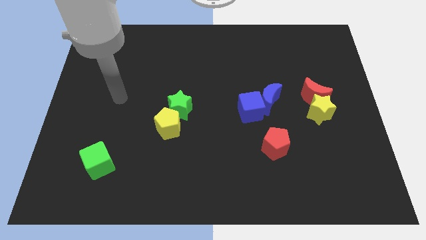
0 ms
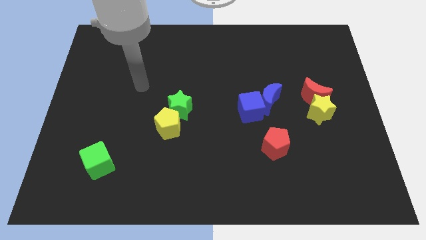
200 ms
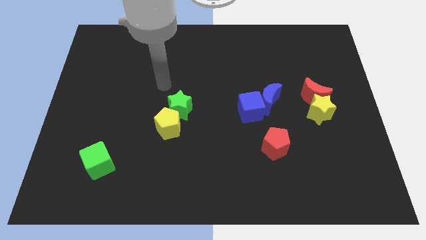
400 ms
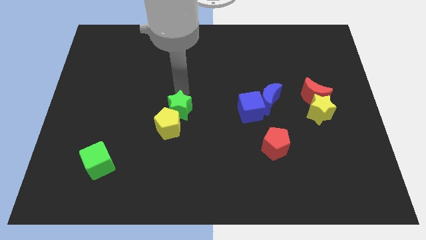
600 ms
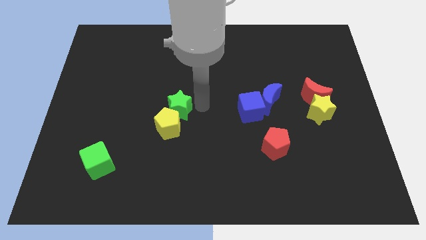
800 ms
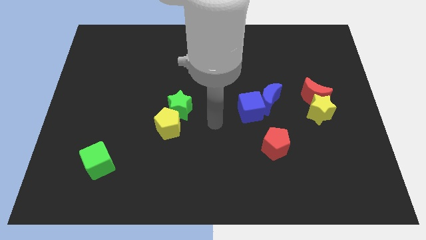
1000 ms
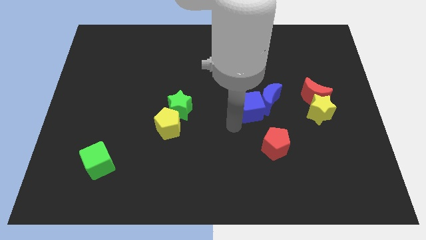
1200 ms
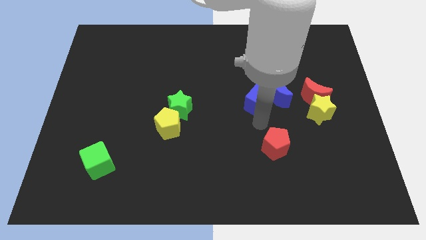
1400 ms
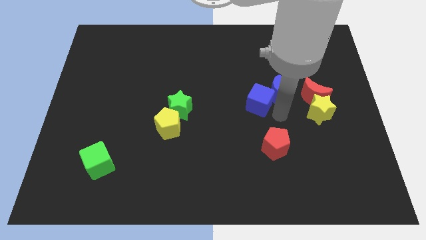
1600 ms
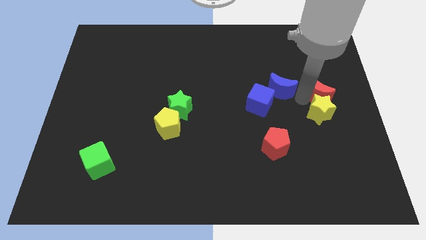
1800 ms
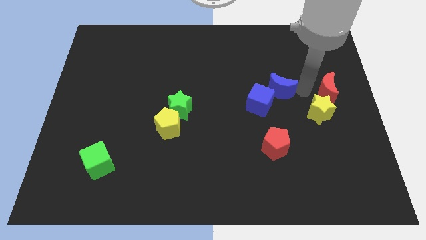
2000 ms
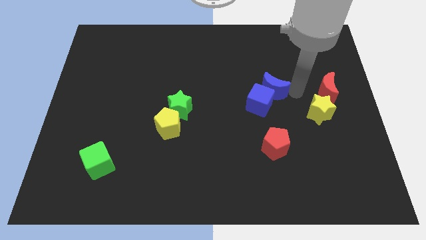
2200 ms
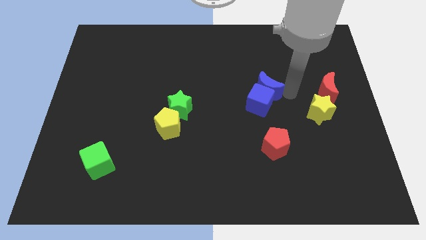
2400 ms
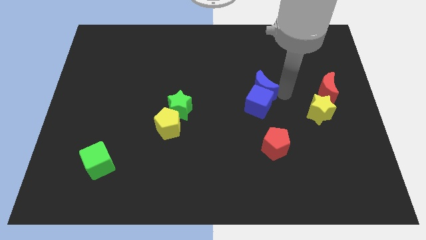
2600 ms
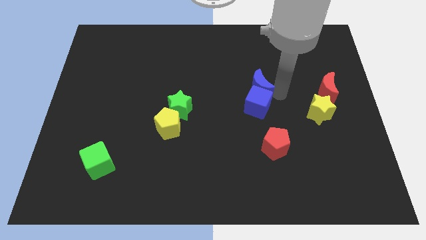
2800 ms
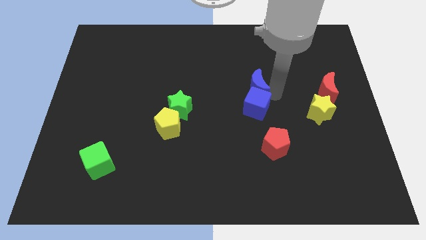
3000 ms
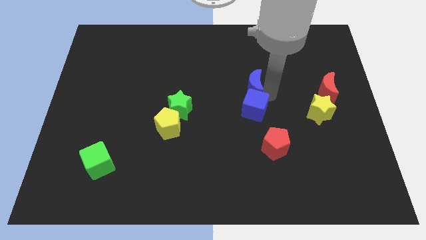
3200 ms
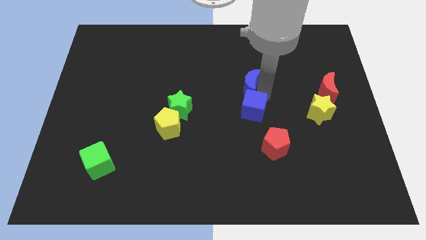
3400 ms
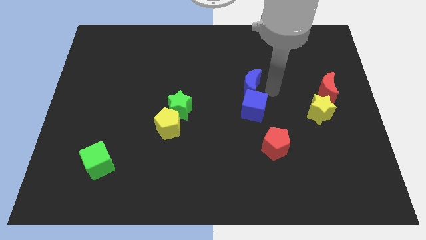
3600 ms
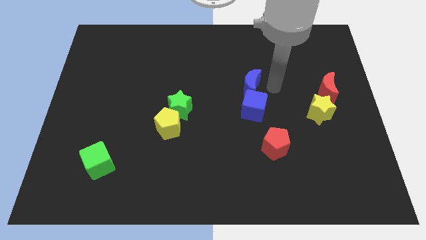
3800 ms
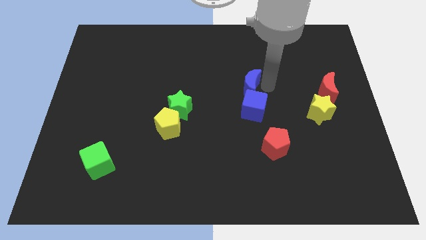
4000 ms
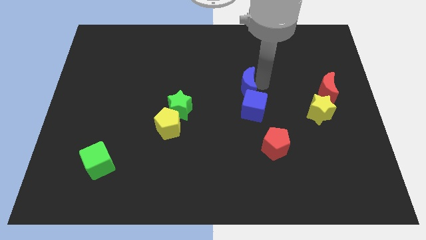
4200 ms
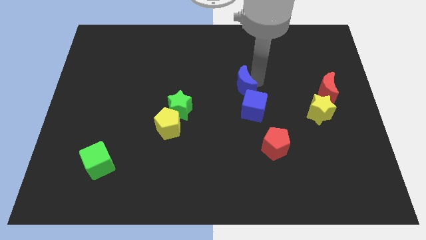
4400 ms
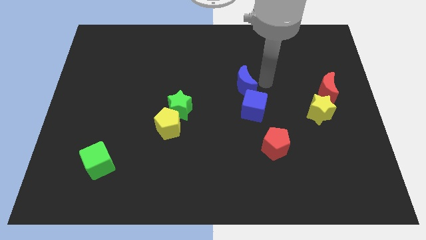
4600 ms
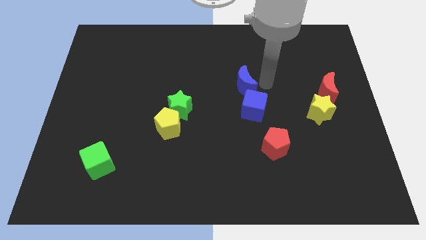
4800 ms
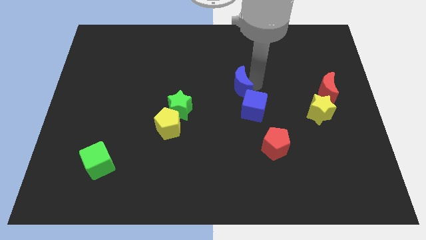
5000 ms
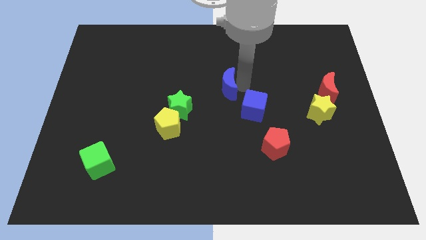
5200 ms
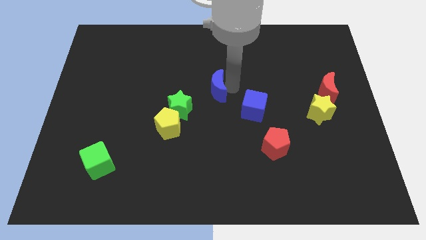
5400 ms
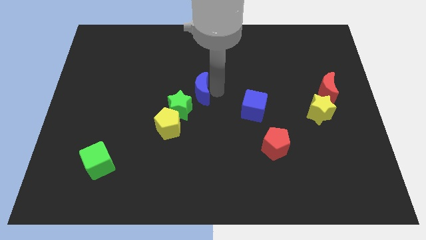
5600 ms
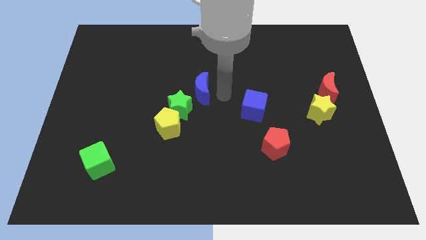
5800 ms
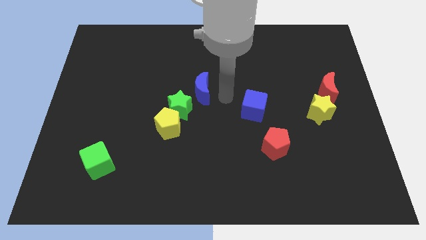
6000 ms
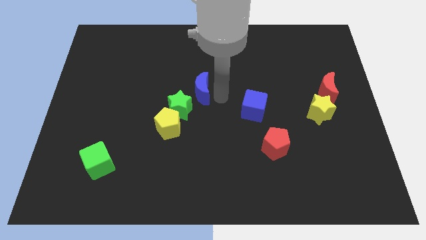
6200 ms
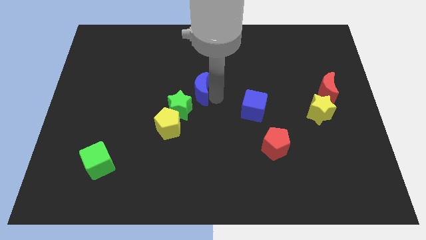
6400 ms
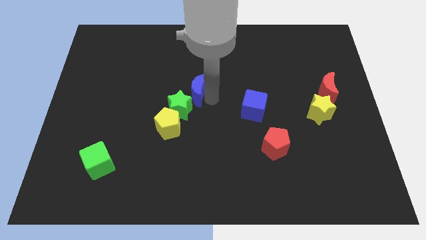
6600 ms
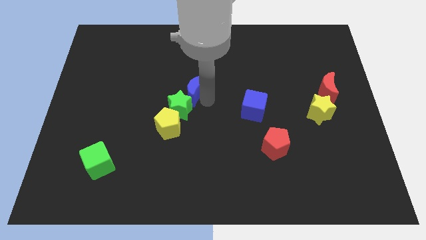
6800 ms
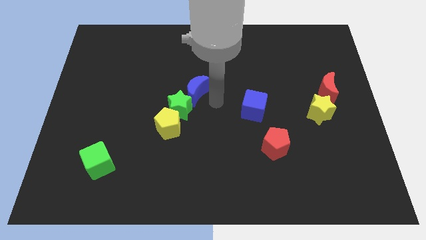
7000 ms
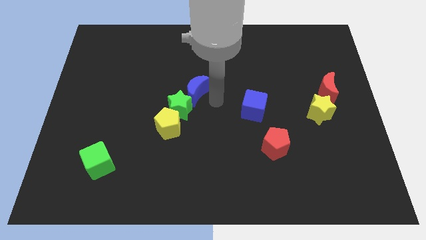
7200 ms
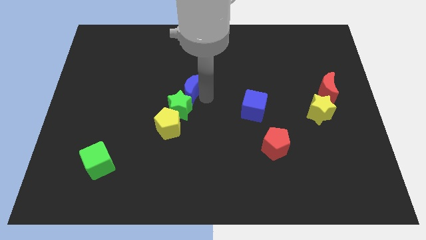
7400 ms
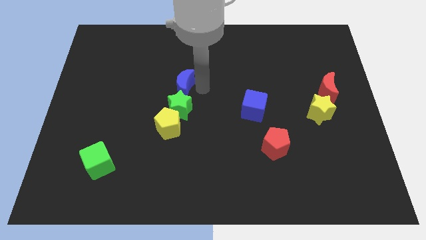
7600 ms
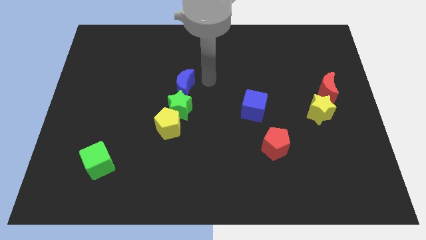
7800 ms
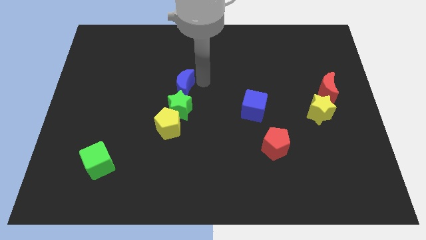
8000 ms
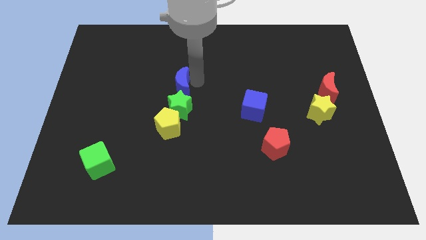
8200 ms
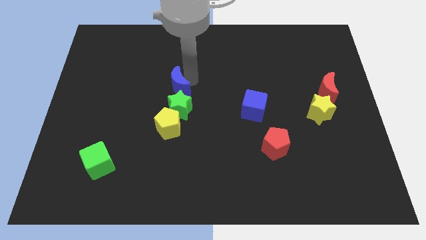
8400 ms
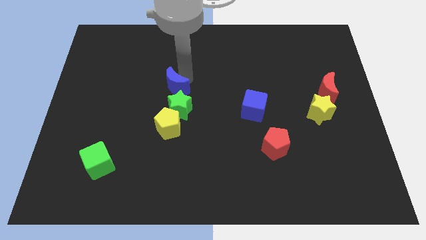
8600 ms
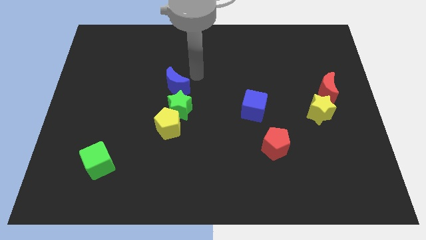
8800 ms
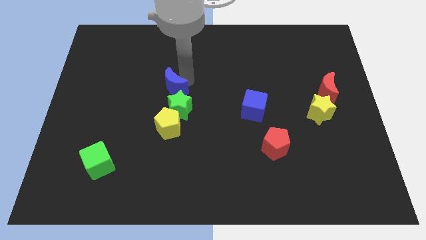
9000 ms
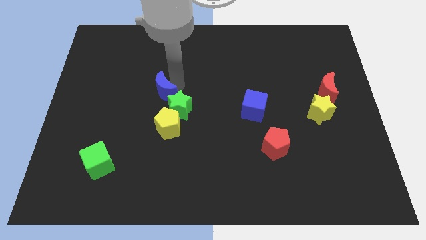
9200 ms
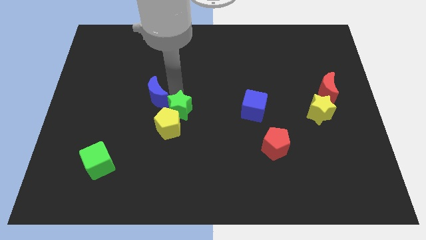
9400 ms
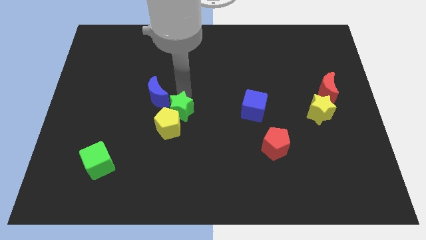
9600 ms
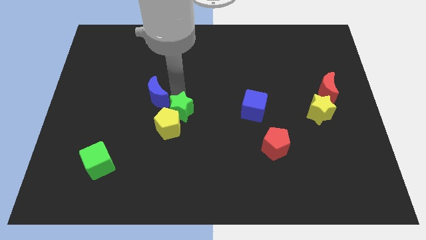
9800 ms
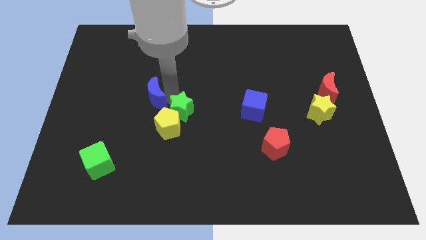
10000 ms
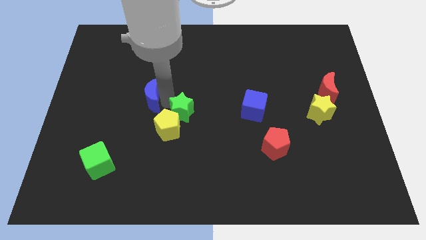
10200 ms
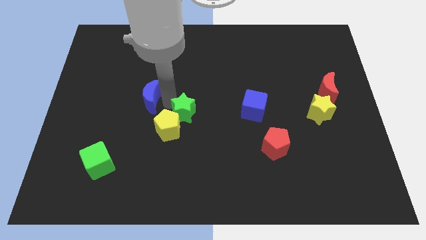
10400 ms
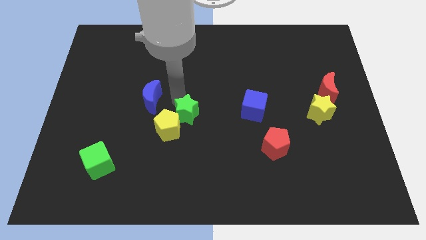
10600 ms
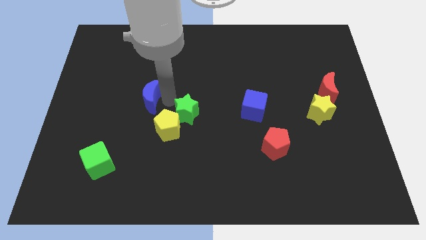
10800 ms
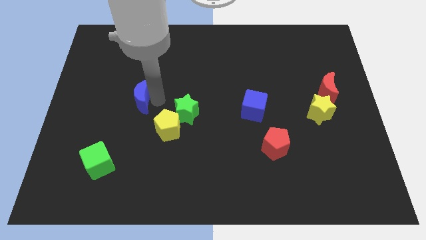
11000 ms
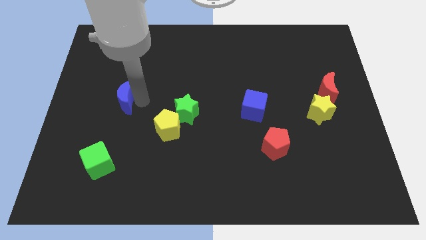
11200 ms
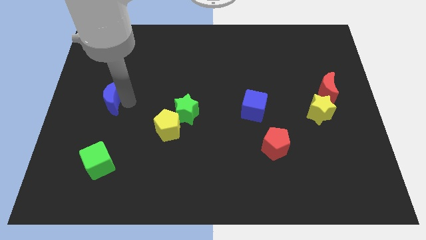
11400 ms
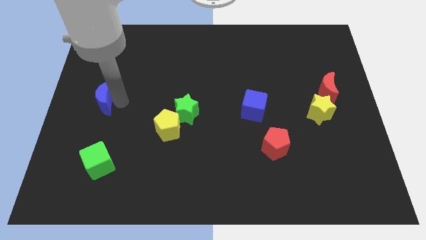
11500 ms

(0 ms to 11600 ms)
put the blue moon to the left side of the board

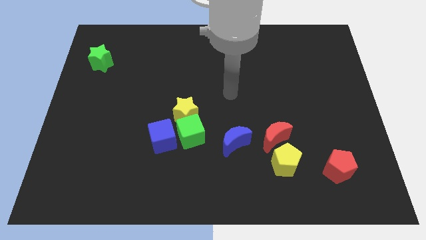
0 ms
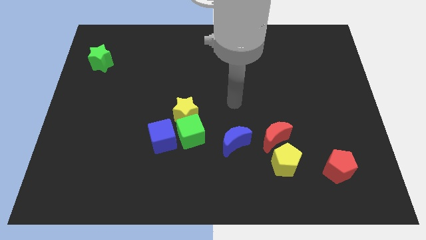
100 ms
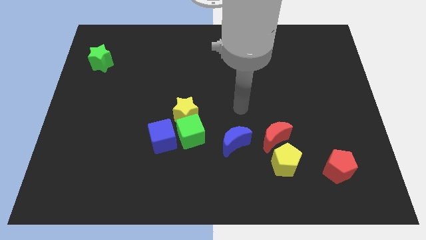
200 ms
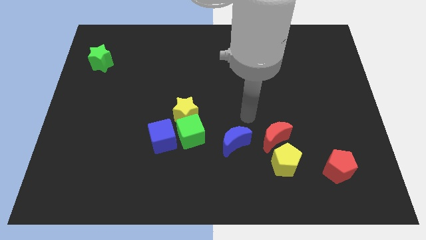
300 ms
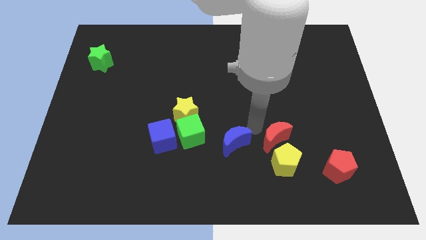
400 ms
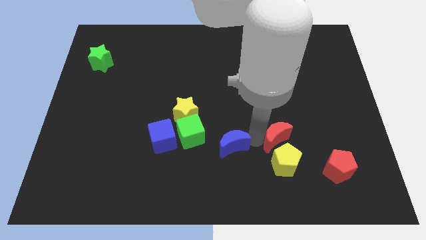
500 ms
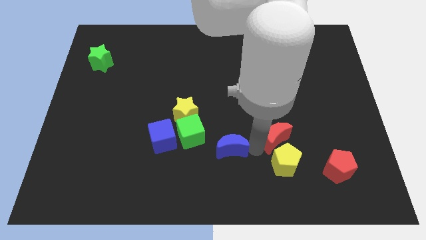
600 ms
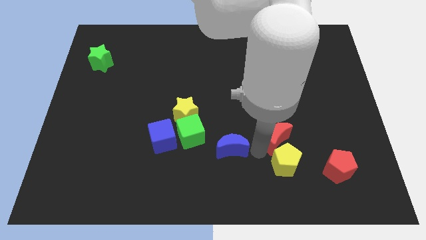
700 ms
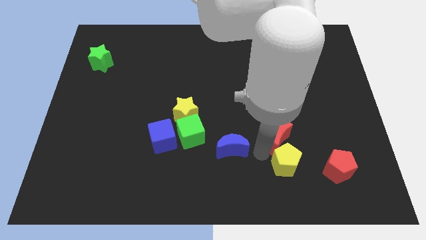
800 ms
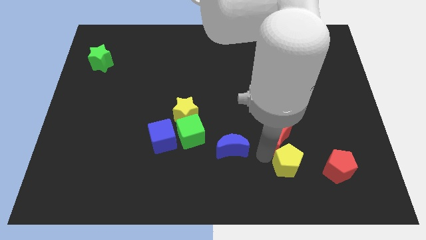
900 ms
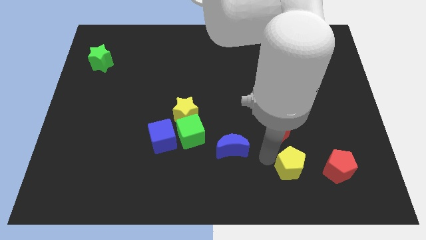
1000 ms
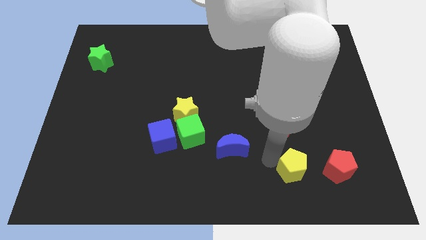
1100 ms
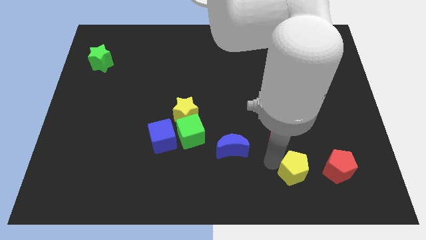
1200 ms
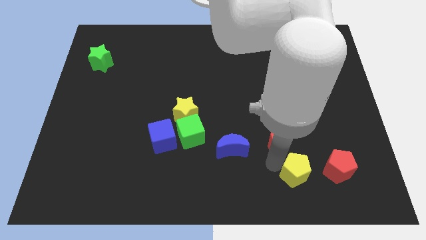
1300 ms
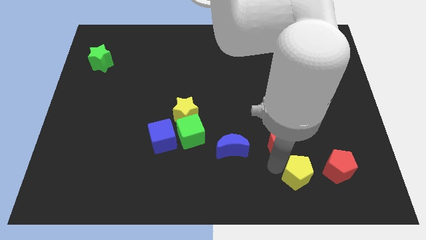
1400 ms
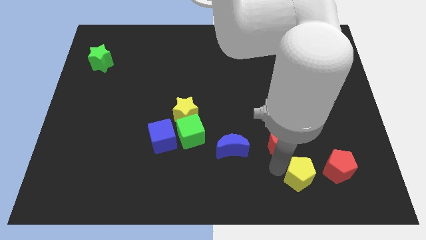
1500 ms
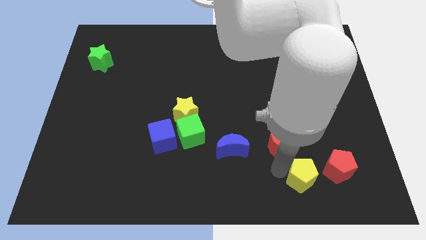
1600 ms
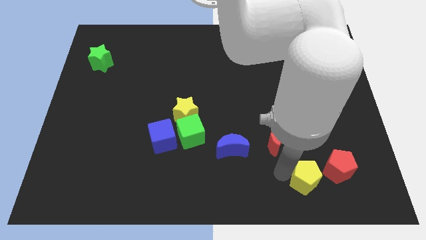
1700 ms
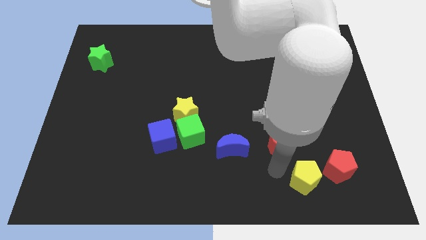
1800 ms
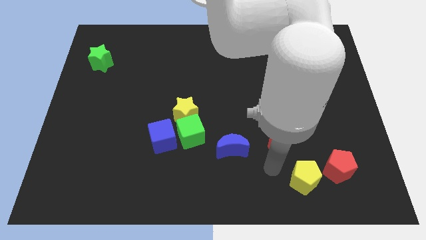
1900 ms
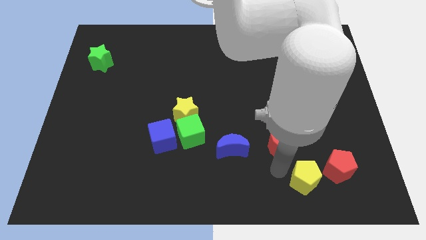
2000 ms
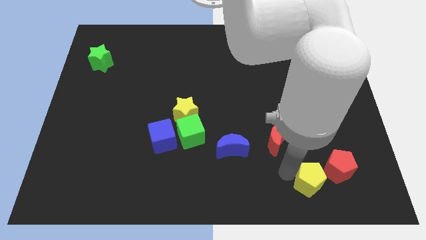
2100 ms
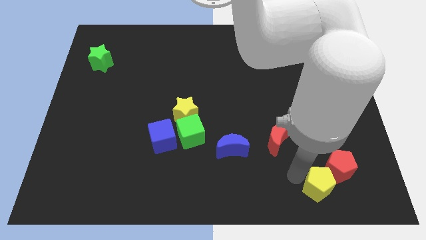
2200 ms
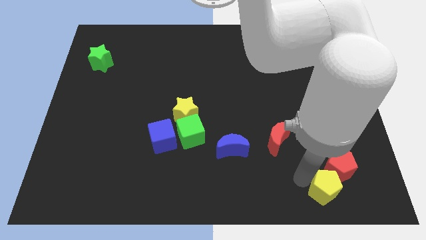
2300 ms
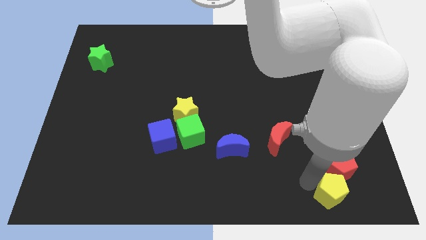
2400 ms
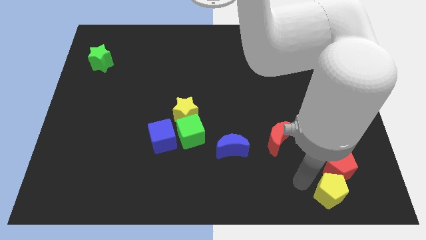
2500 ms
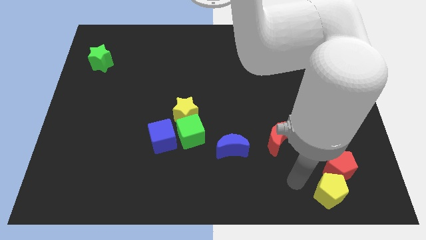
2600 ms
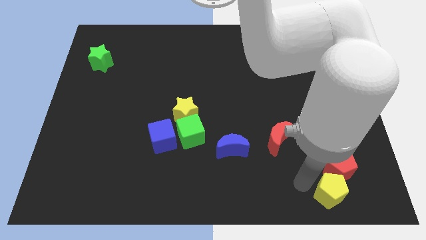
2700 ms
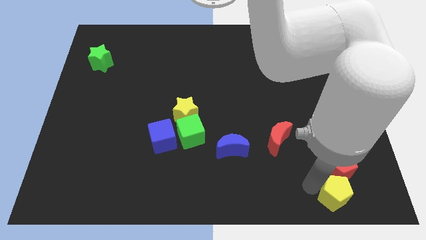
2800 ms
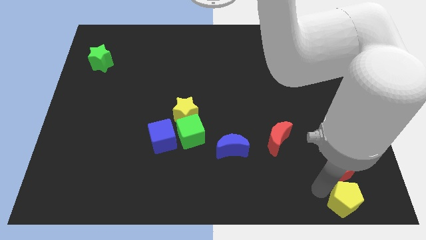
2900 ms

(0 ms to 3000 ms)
push the yellow pentagon to the lower right corner
